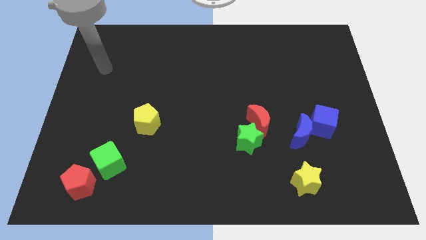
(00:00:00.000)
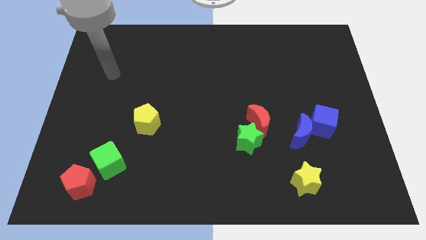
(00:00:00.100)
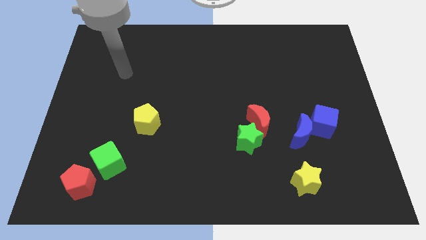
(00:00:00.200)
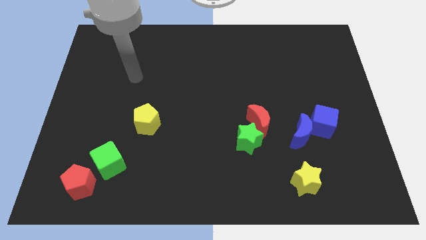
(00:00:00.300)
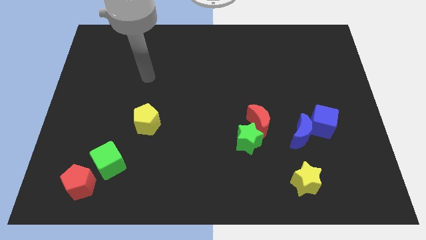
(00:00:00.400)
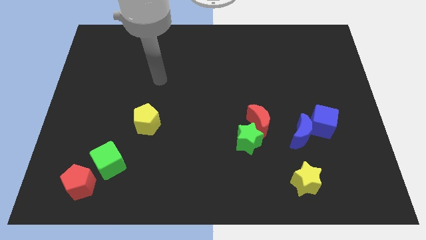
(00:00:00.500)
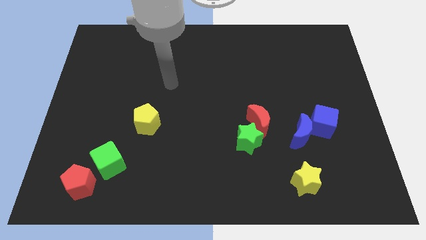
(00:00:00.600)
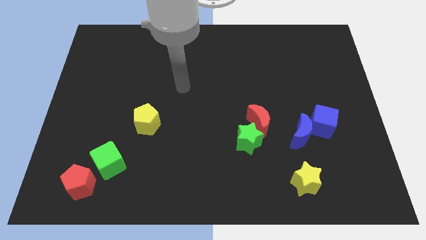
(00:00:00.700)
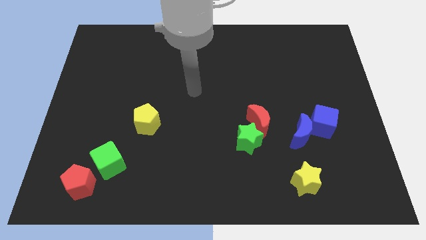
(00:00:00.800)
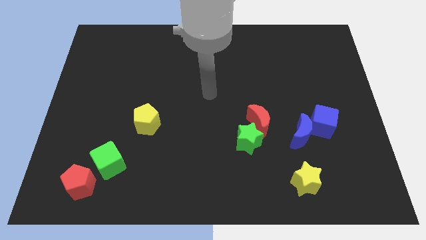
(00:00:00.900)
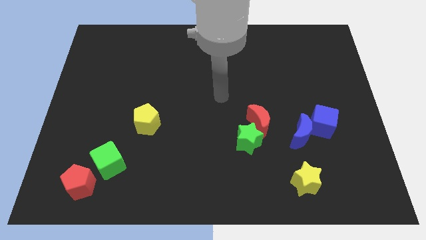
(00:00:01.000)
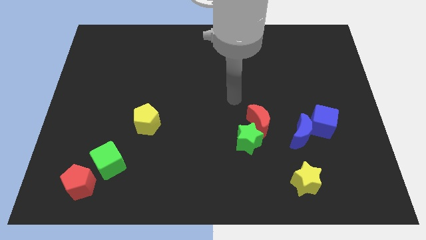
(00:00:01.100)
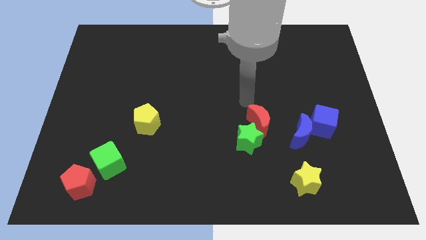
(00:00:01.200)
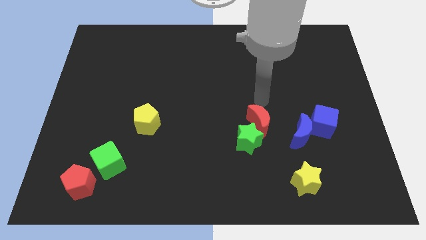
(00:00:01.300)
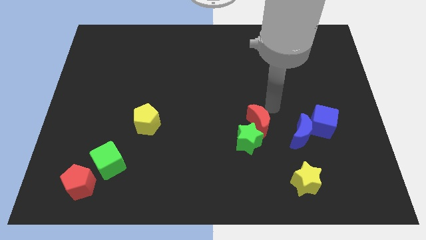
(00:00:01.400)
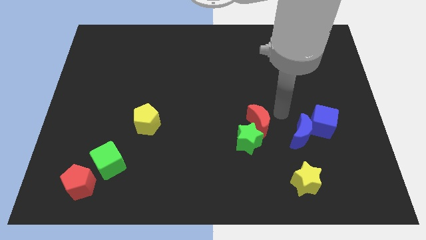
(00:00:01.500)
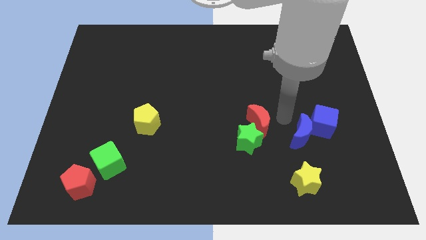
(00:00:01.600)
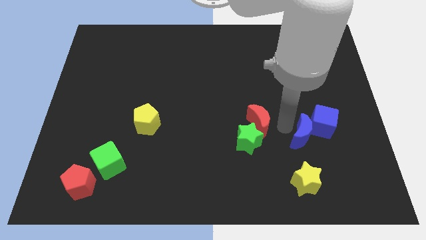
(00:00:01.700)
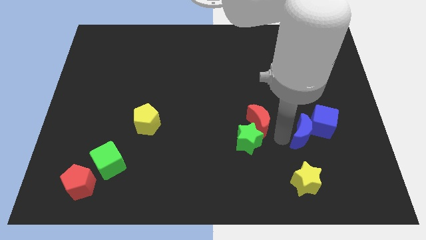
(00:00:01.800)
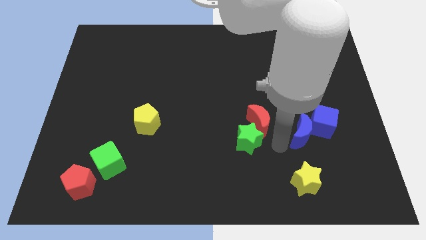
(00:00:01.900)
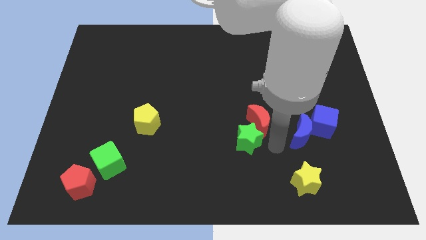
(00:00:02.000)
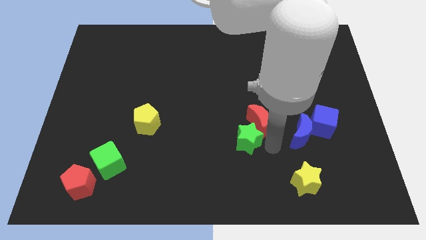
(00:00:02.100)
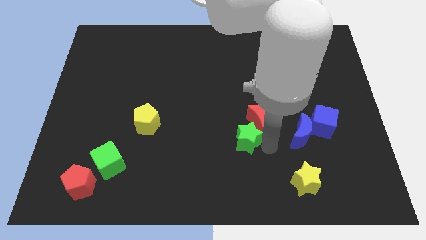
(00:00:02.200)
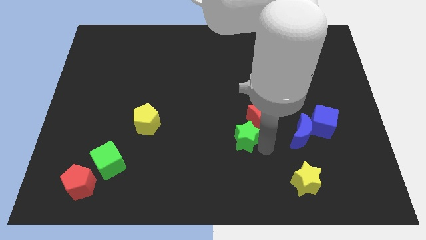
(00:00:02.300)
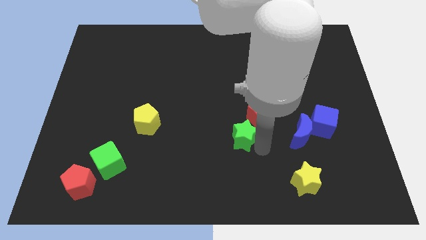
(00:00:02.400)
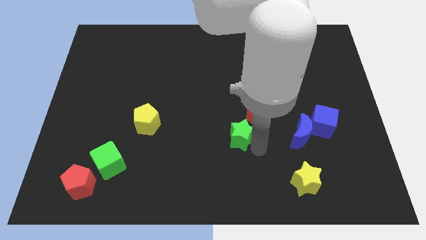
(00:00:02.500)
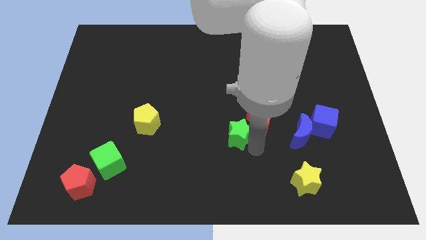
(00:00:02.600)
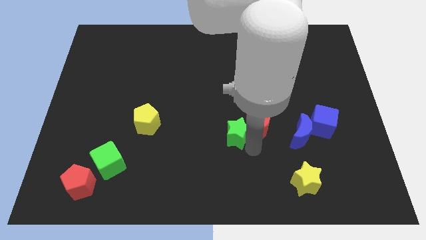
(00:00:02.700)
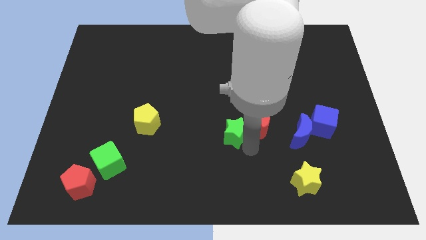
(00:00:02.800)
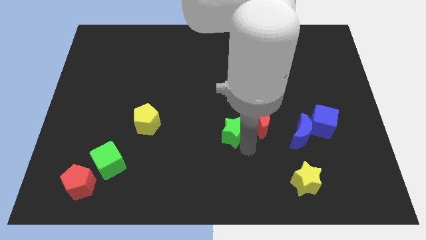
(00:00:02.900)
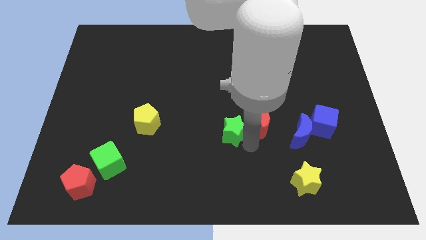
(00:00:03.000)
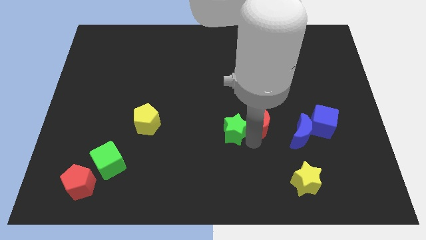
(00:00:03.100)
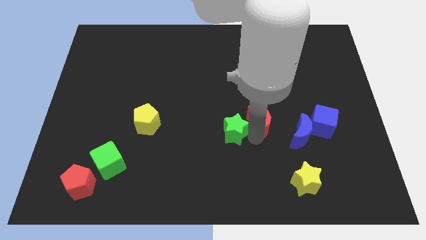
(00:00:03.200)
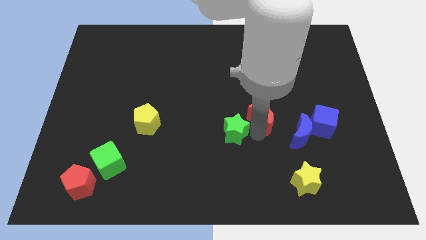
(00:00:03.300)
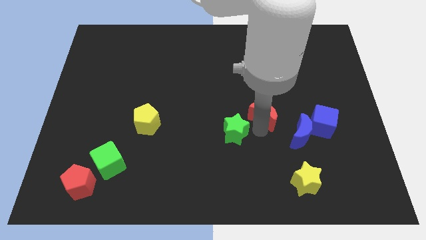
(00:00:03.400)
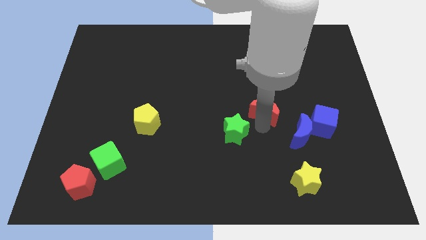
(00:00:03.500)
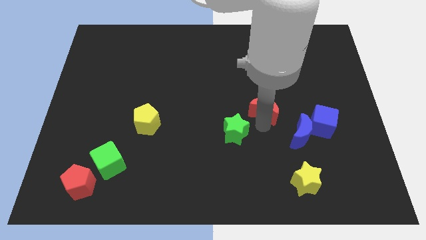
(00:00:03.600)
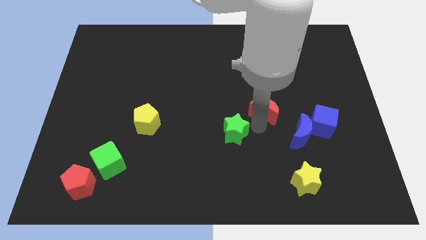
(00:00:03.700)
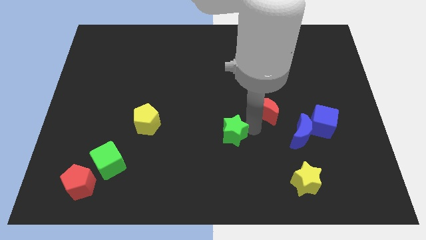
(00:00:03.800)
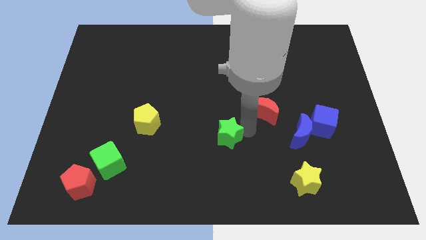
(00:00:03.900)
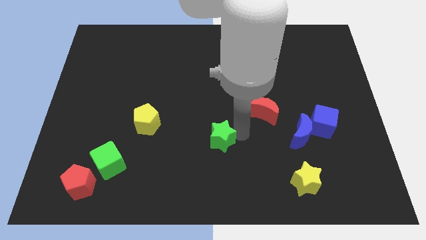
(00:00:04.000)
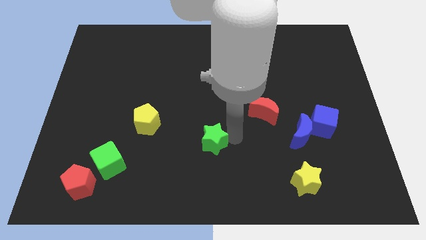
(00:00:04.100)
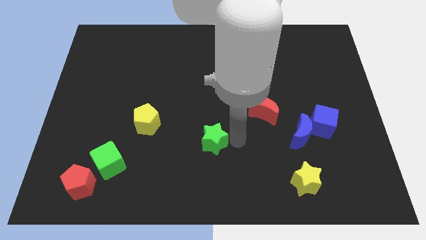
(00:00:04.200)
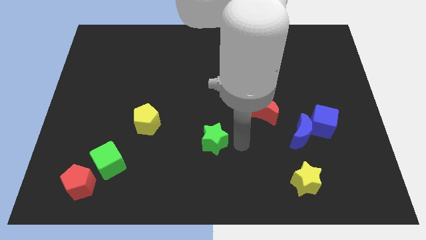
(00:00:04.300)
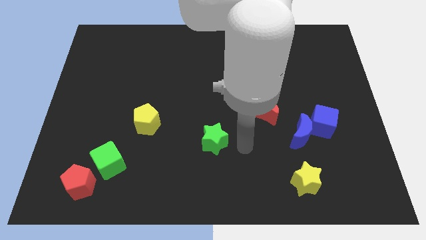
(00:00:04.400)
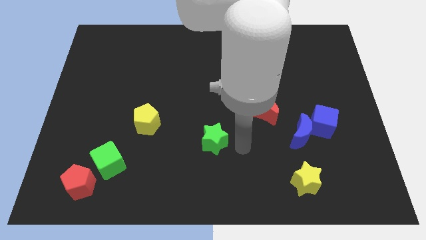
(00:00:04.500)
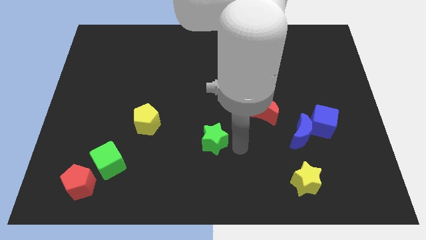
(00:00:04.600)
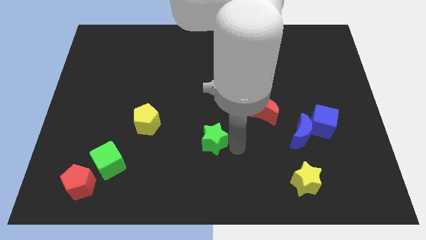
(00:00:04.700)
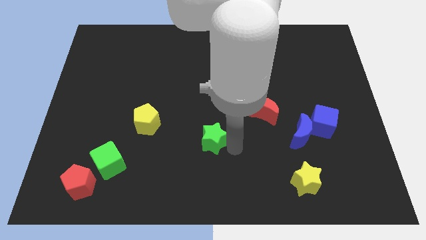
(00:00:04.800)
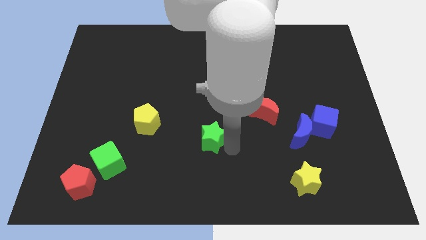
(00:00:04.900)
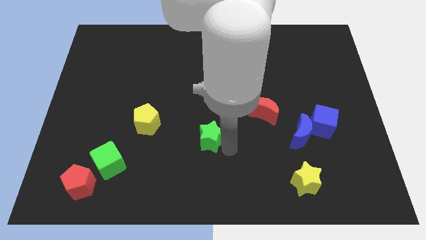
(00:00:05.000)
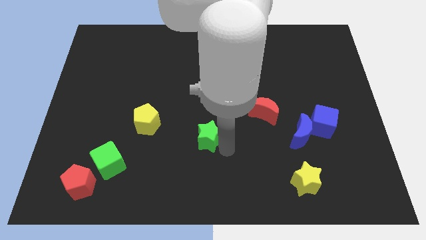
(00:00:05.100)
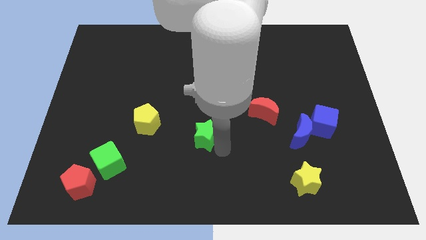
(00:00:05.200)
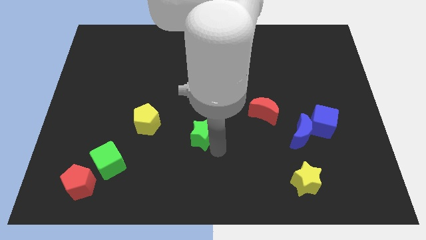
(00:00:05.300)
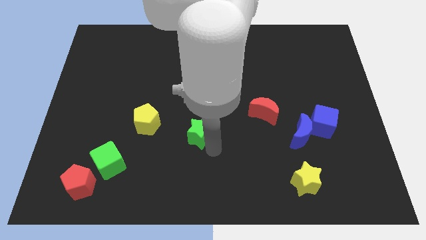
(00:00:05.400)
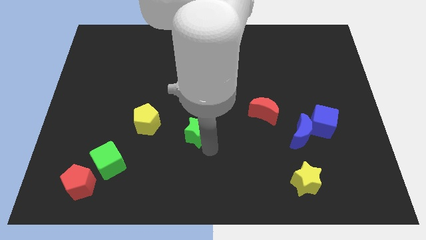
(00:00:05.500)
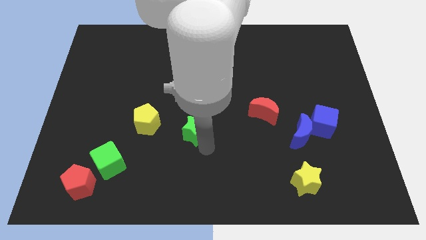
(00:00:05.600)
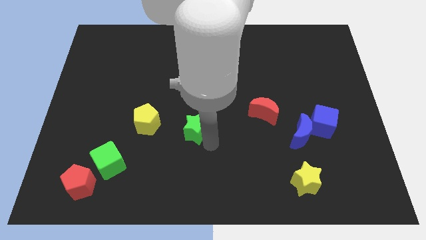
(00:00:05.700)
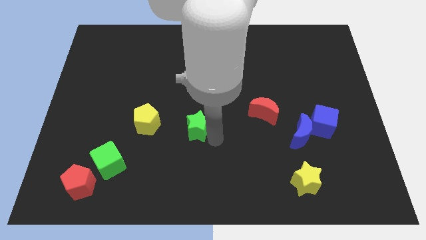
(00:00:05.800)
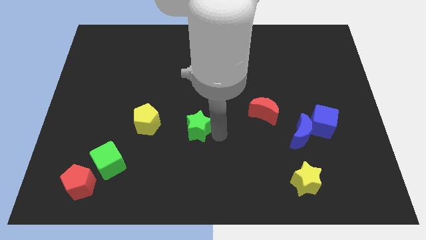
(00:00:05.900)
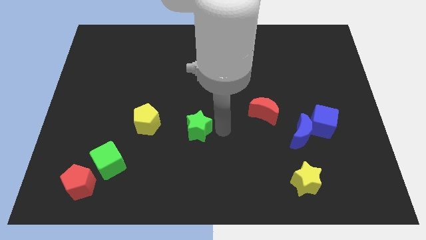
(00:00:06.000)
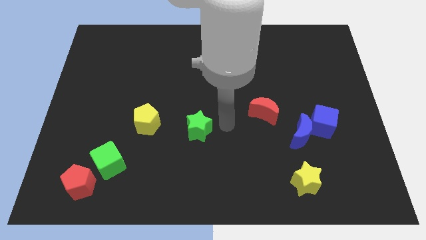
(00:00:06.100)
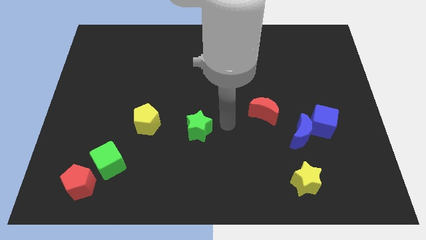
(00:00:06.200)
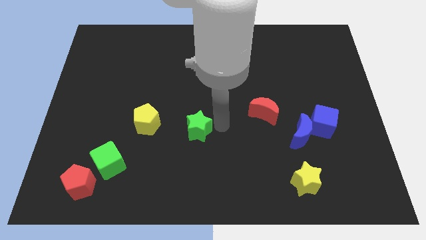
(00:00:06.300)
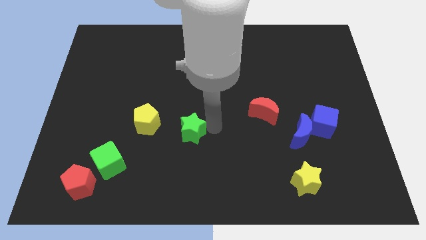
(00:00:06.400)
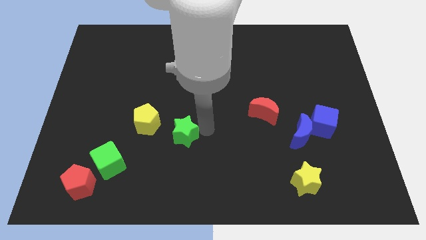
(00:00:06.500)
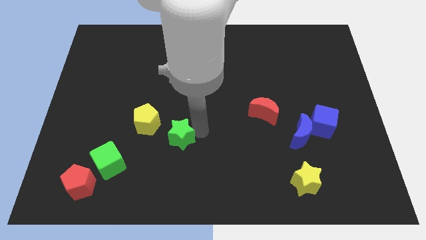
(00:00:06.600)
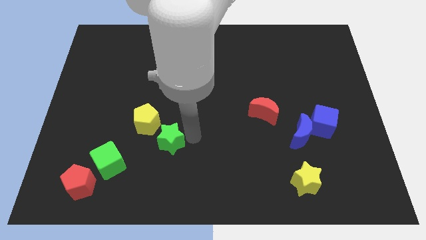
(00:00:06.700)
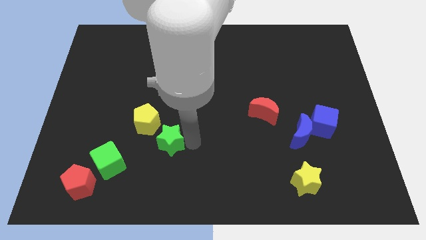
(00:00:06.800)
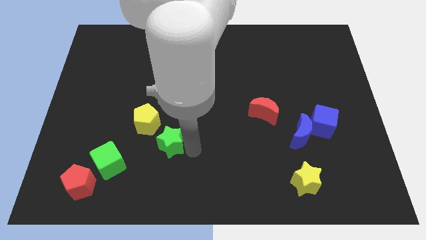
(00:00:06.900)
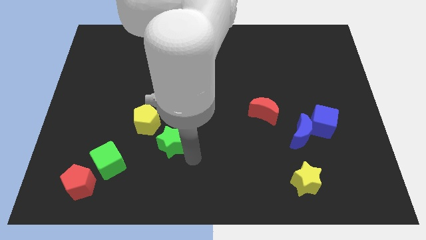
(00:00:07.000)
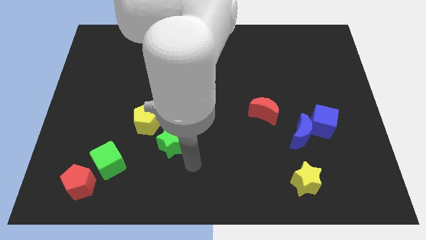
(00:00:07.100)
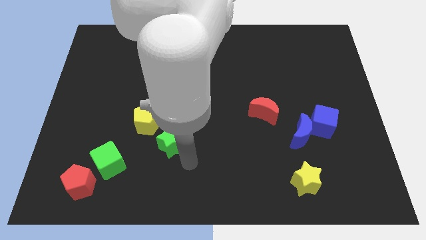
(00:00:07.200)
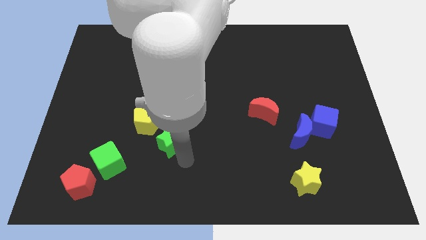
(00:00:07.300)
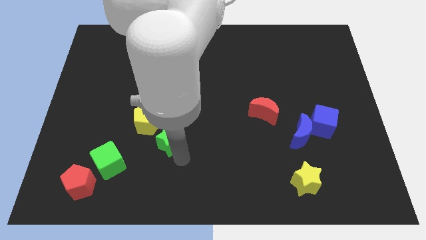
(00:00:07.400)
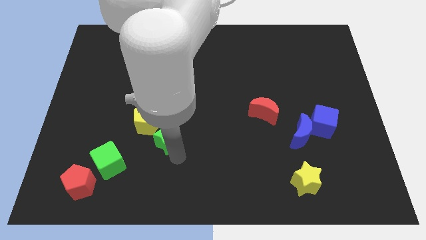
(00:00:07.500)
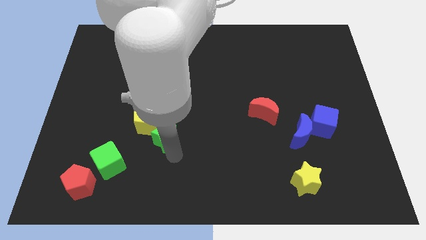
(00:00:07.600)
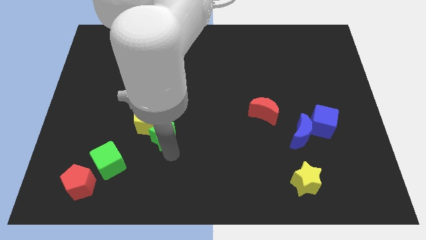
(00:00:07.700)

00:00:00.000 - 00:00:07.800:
move the green star close to the yellow pentagon
